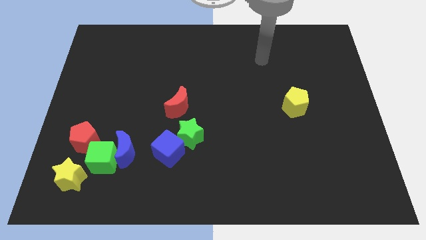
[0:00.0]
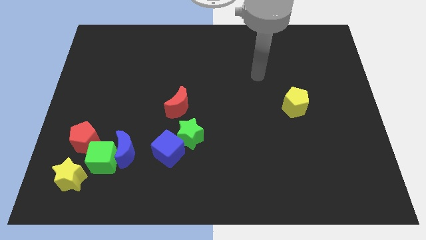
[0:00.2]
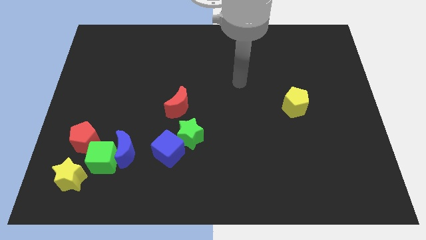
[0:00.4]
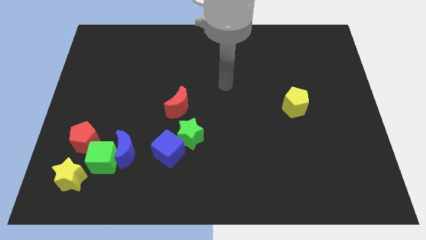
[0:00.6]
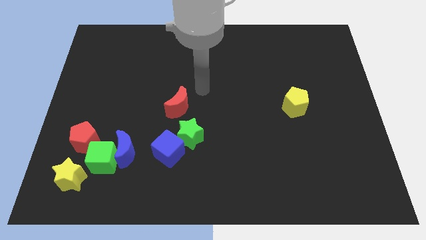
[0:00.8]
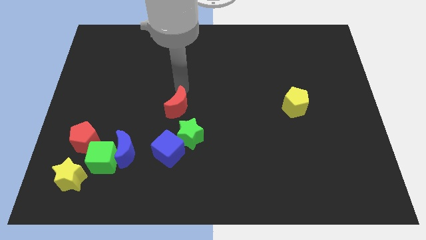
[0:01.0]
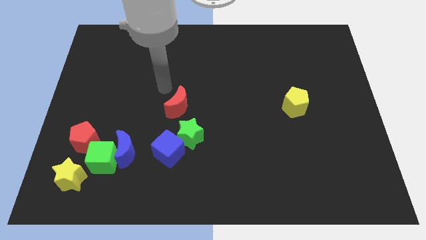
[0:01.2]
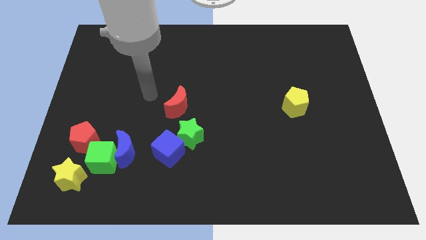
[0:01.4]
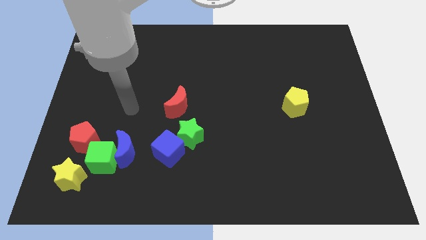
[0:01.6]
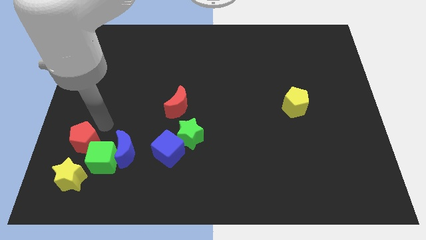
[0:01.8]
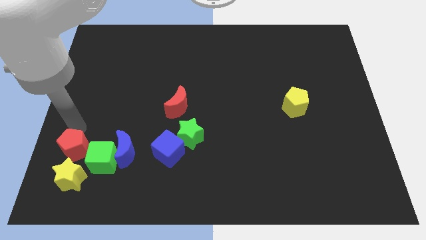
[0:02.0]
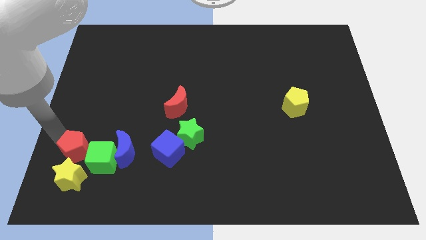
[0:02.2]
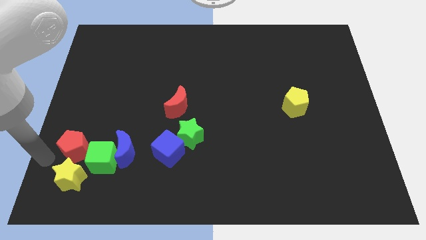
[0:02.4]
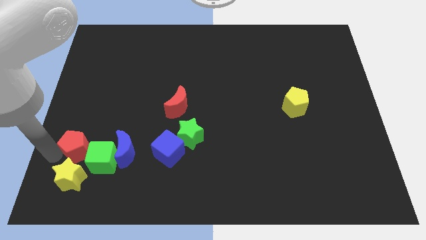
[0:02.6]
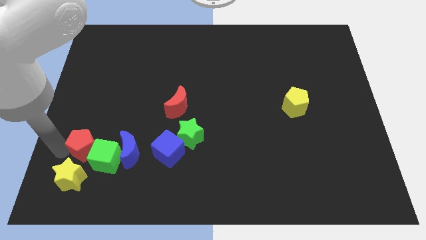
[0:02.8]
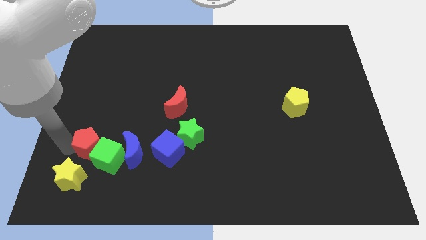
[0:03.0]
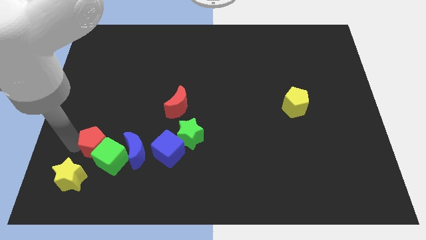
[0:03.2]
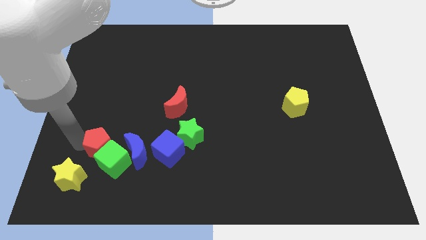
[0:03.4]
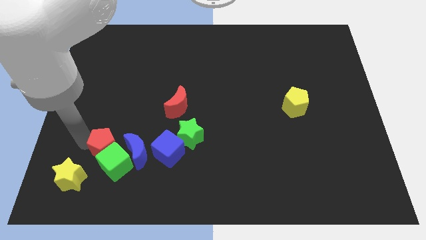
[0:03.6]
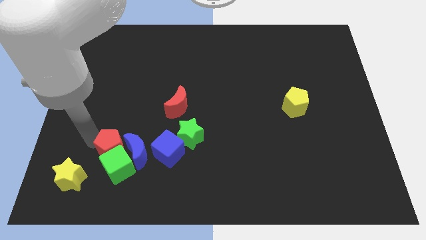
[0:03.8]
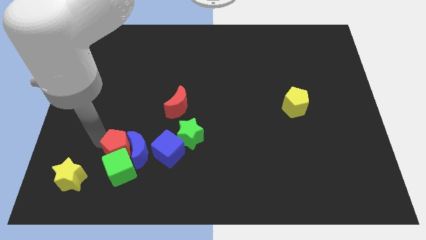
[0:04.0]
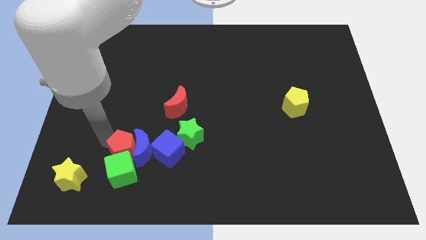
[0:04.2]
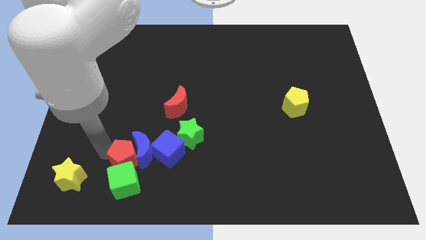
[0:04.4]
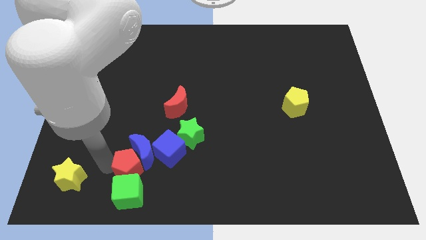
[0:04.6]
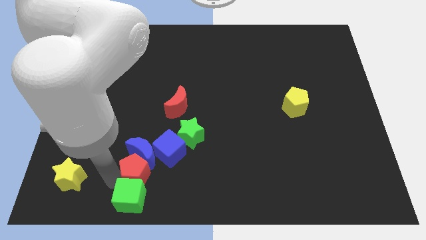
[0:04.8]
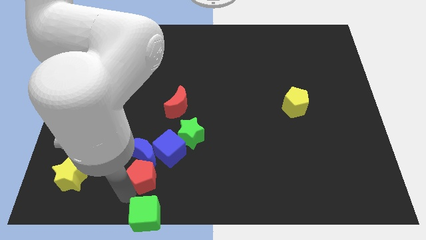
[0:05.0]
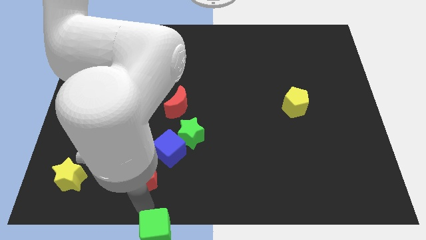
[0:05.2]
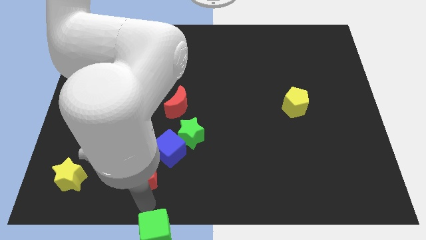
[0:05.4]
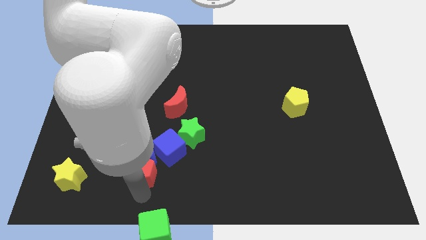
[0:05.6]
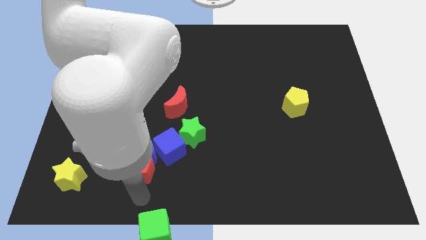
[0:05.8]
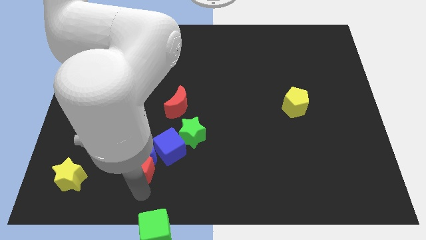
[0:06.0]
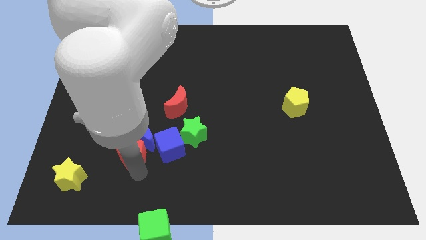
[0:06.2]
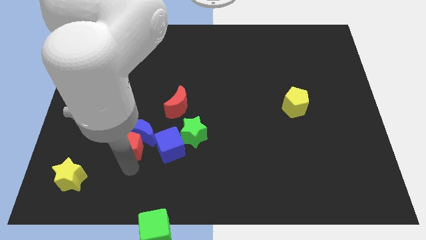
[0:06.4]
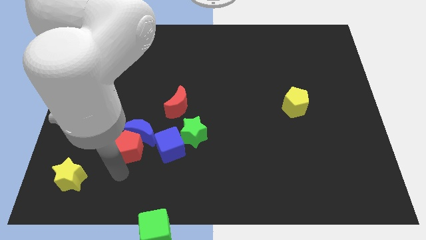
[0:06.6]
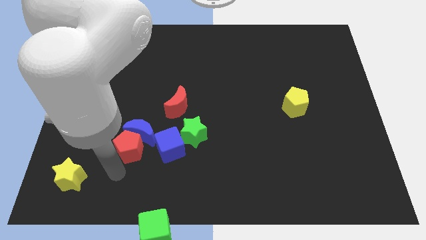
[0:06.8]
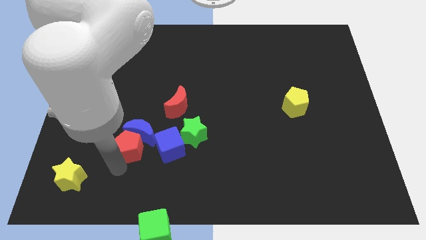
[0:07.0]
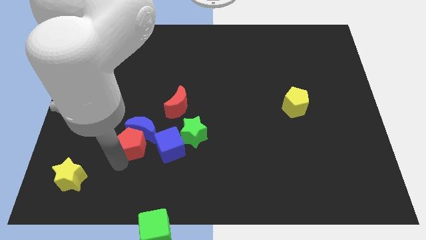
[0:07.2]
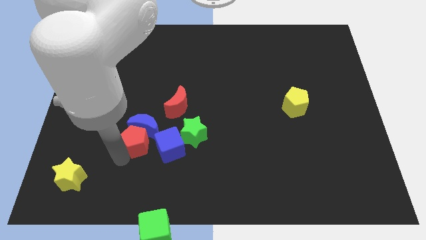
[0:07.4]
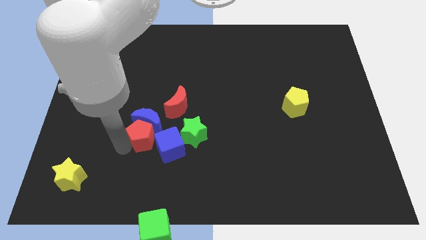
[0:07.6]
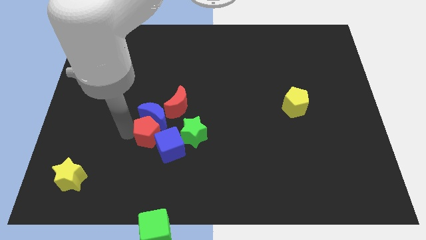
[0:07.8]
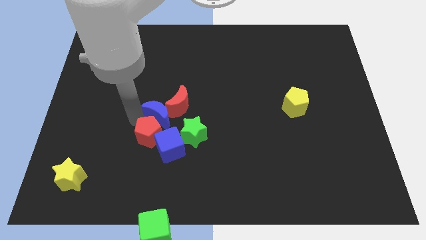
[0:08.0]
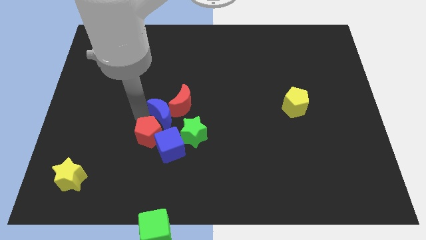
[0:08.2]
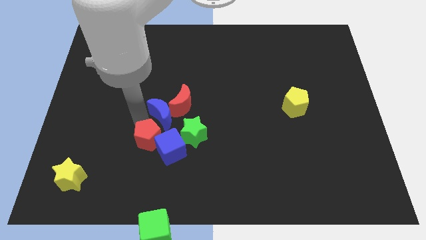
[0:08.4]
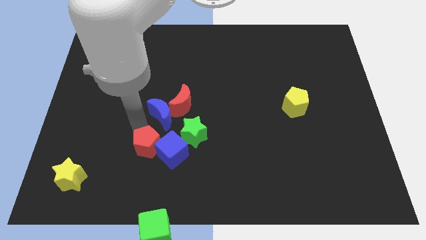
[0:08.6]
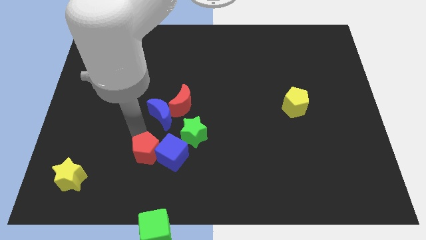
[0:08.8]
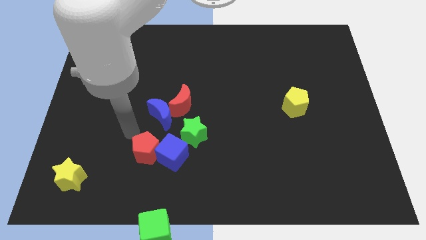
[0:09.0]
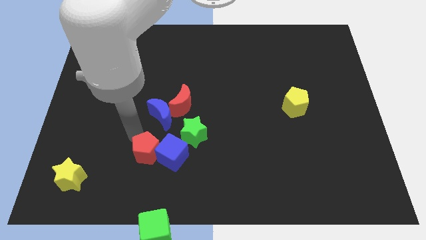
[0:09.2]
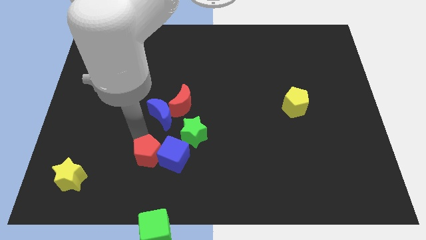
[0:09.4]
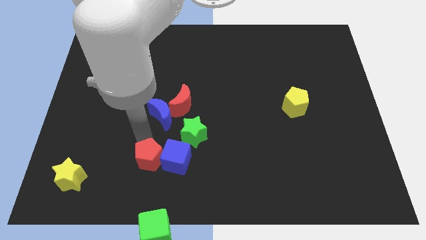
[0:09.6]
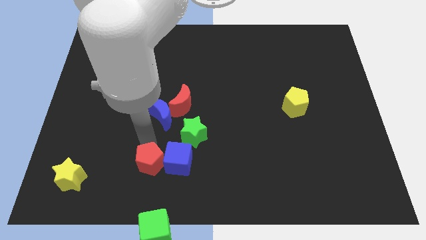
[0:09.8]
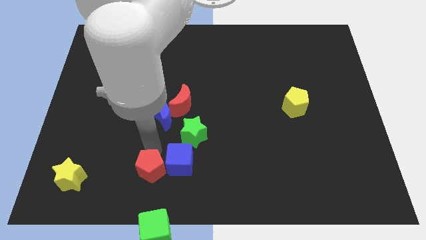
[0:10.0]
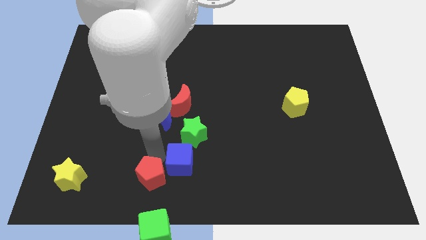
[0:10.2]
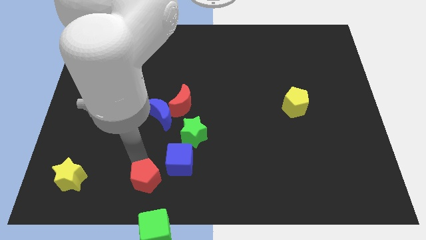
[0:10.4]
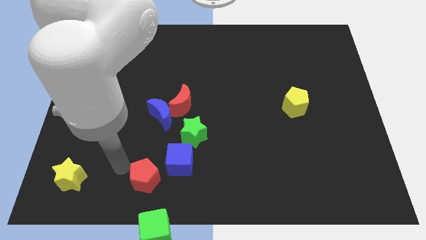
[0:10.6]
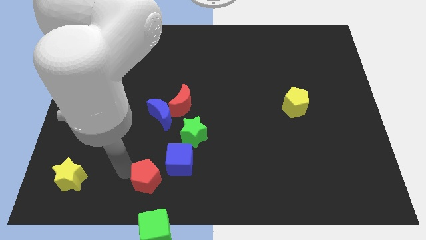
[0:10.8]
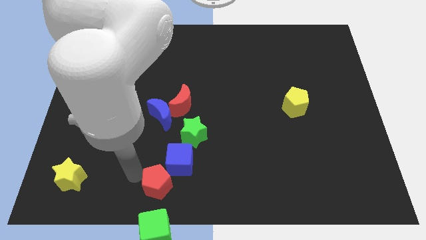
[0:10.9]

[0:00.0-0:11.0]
move the red pentagon to the bottom side
